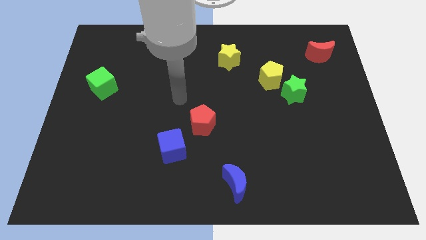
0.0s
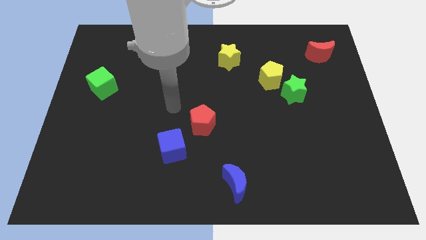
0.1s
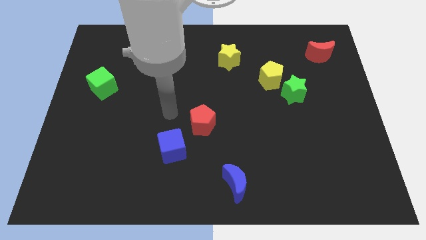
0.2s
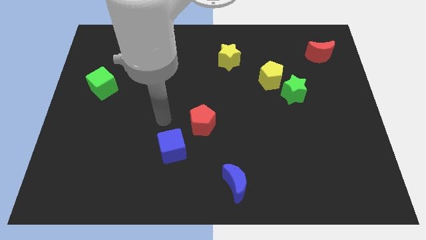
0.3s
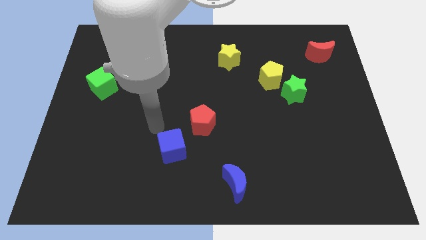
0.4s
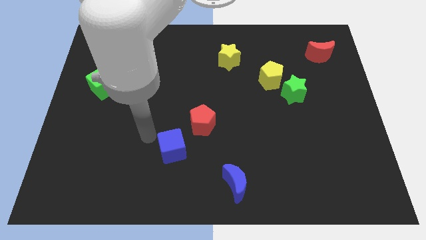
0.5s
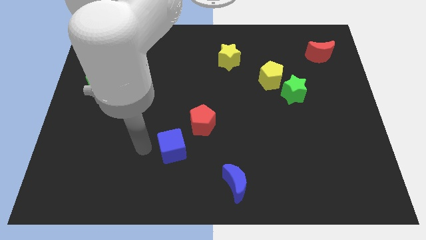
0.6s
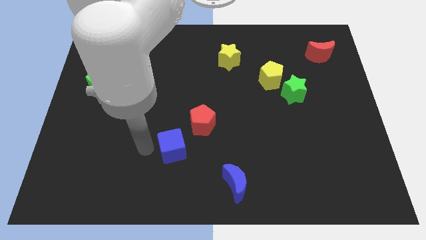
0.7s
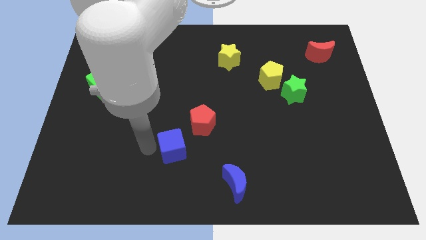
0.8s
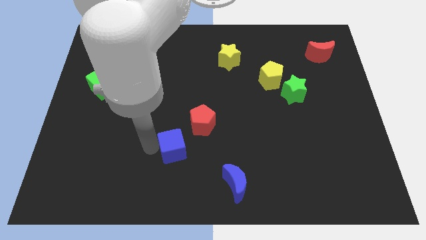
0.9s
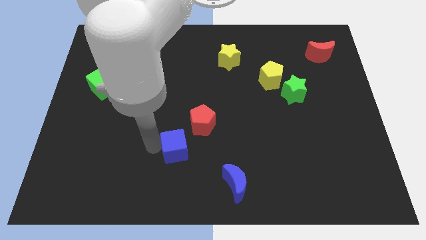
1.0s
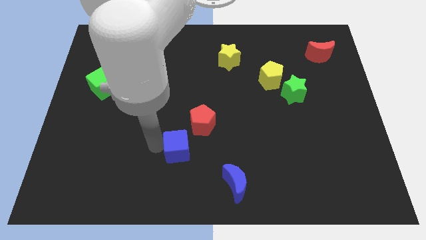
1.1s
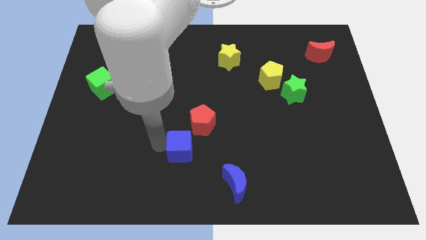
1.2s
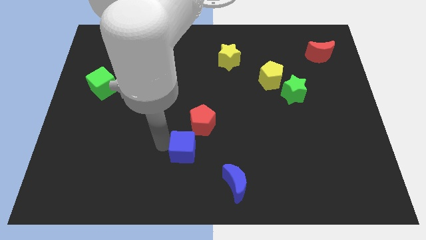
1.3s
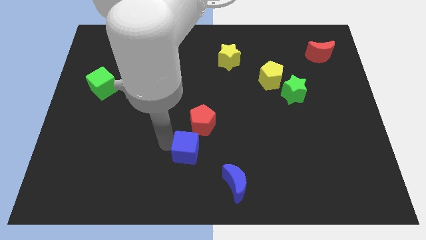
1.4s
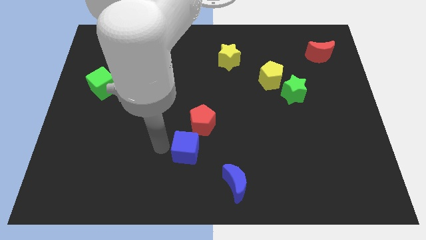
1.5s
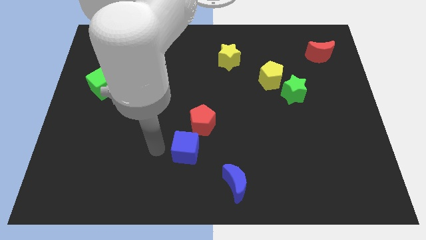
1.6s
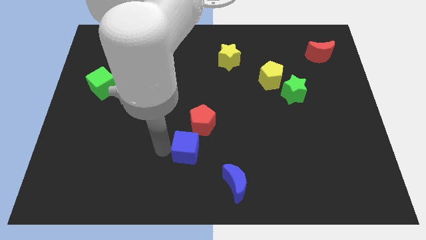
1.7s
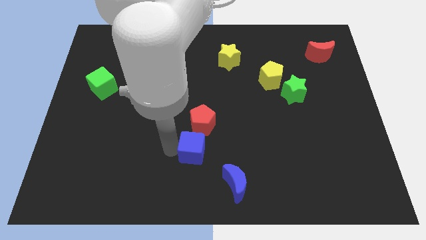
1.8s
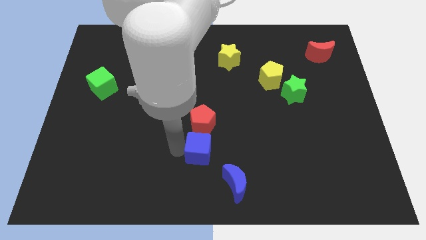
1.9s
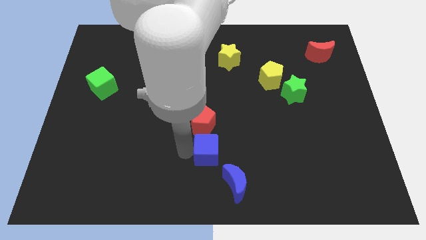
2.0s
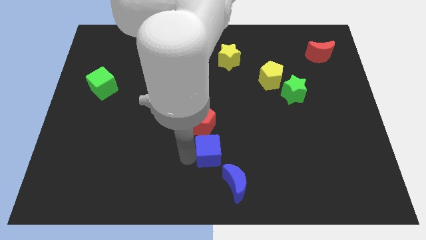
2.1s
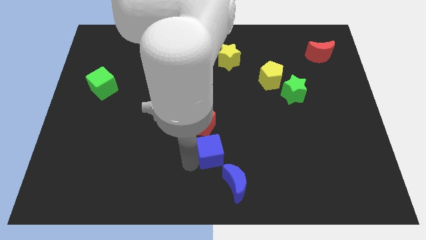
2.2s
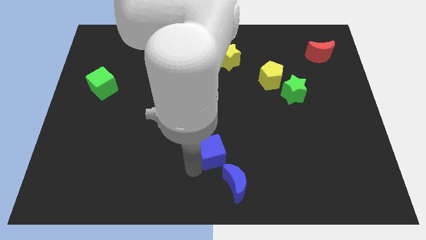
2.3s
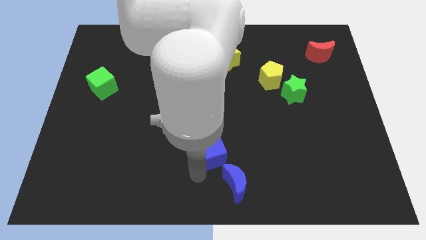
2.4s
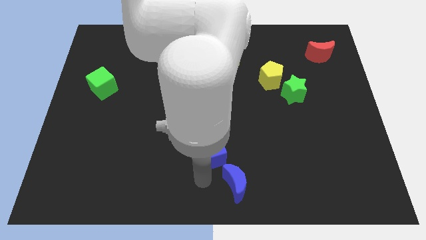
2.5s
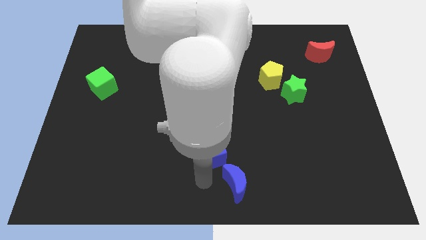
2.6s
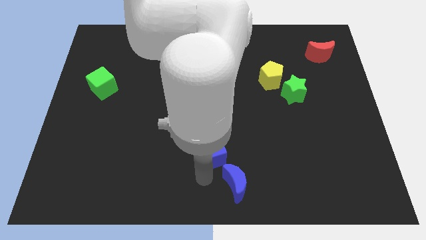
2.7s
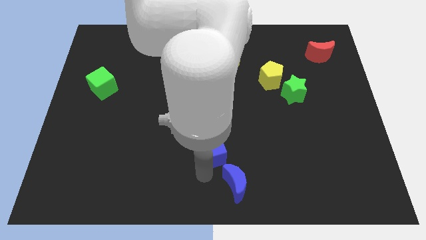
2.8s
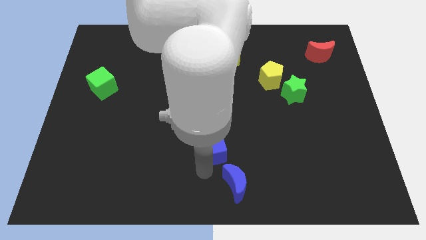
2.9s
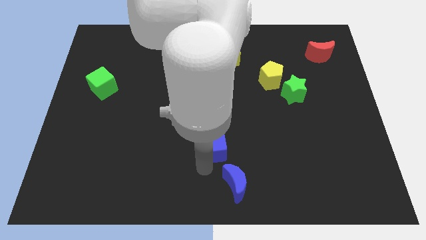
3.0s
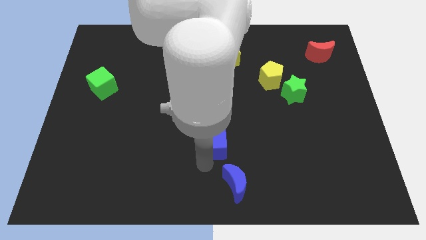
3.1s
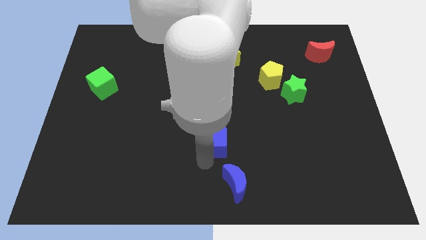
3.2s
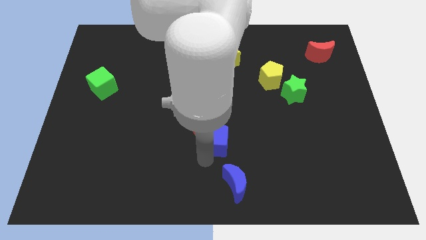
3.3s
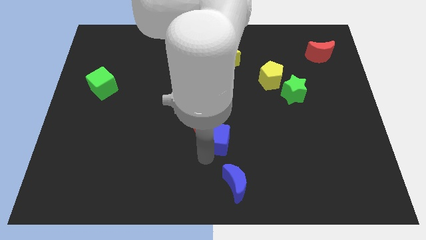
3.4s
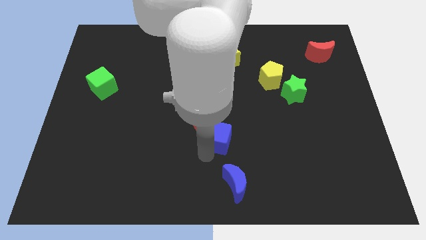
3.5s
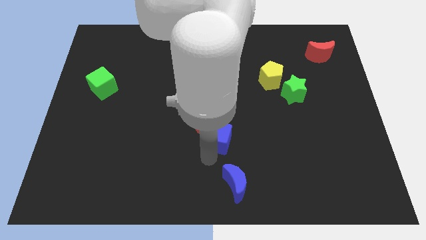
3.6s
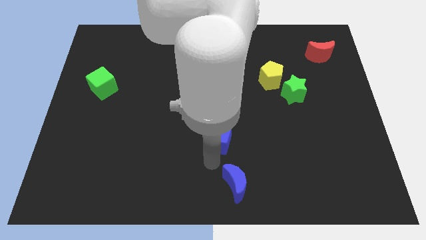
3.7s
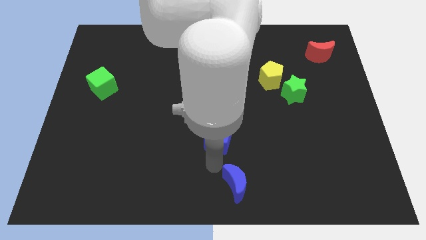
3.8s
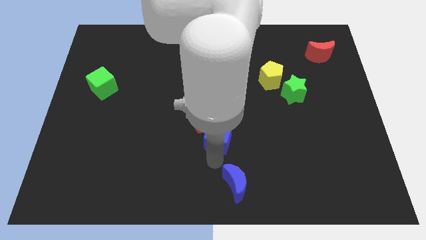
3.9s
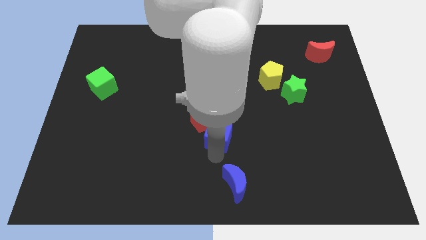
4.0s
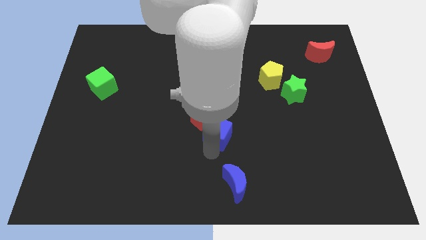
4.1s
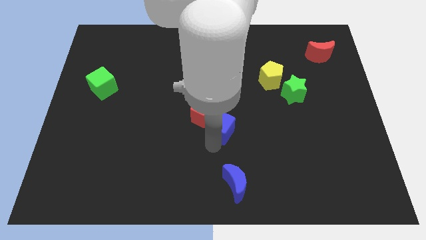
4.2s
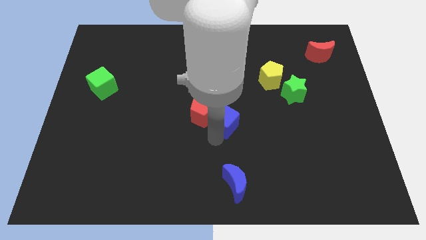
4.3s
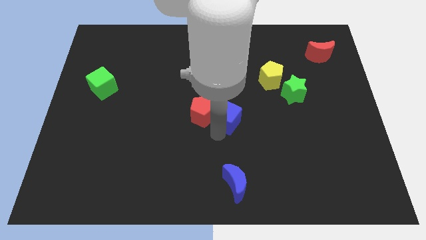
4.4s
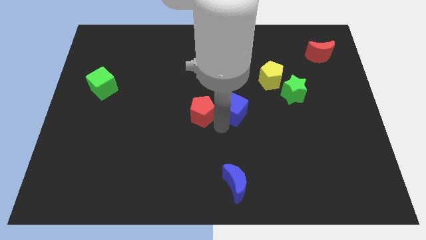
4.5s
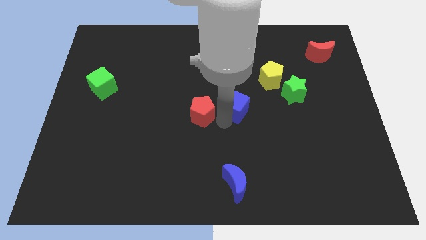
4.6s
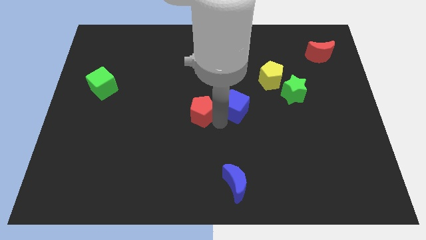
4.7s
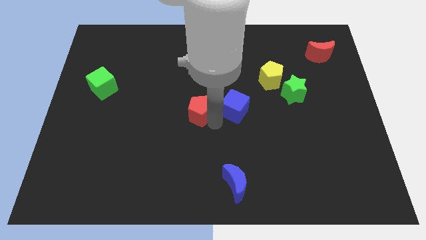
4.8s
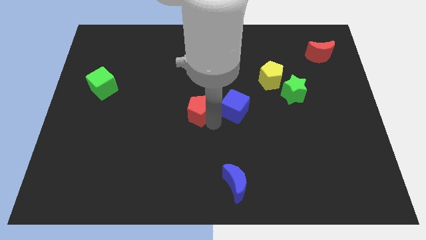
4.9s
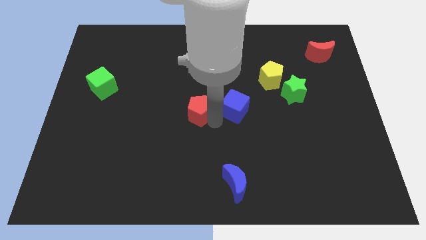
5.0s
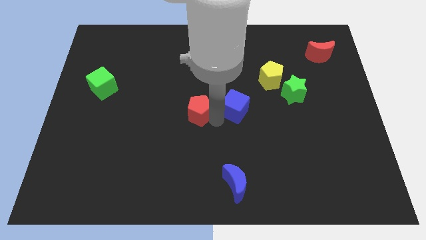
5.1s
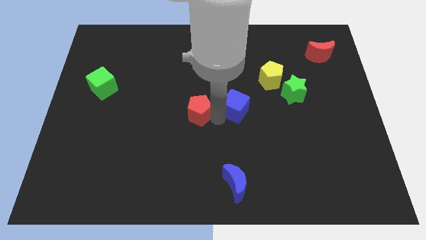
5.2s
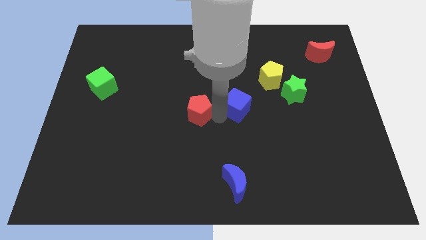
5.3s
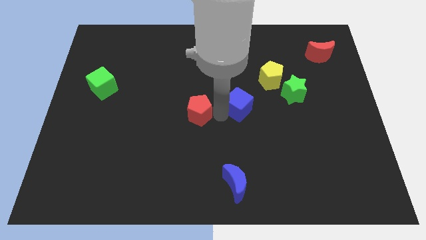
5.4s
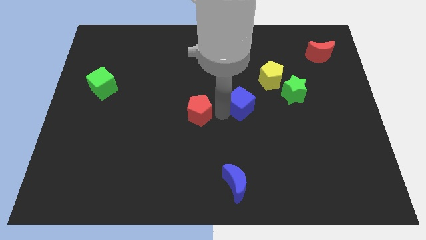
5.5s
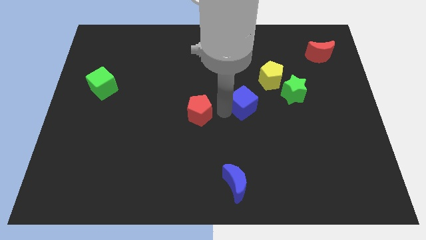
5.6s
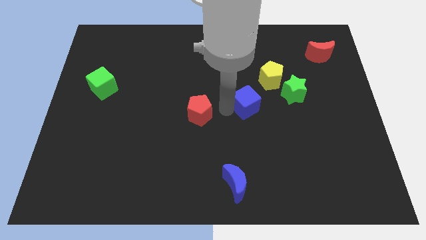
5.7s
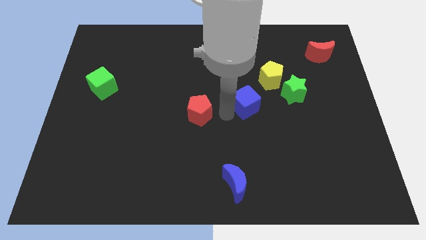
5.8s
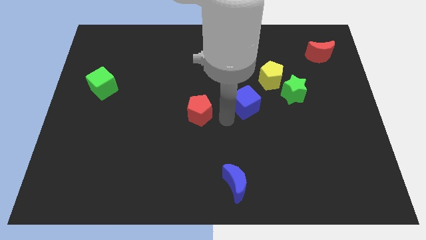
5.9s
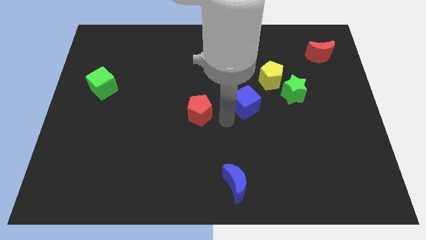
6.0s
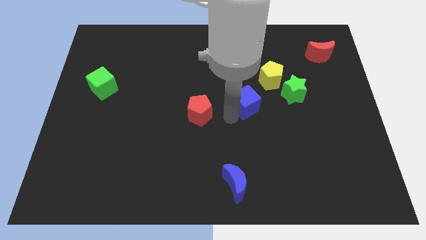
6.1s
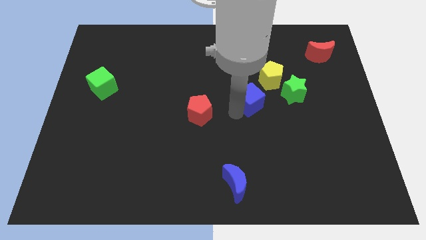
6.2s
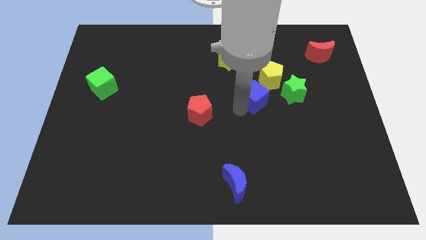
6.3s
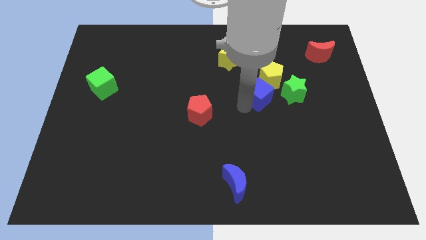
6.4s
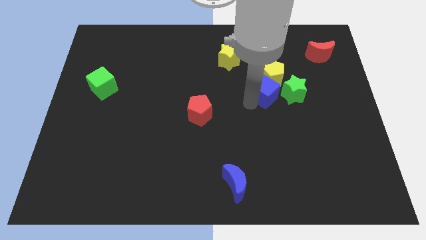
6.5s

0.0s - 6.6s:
push the blue cube next to the yellow pentagon
